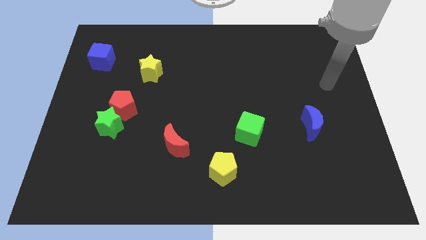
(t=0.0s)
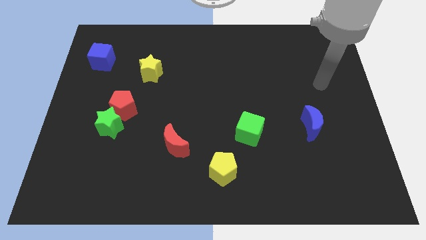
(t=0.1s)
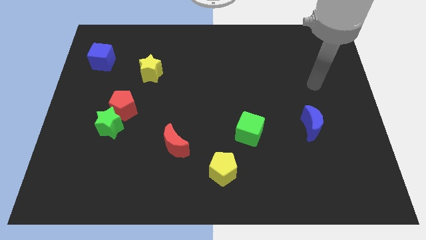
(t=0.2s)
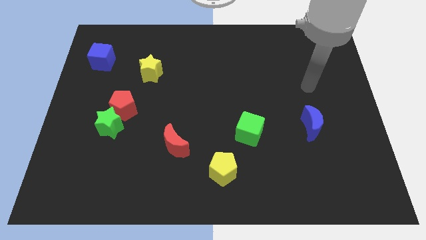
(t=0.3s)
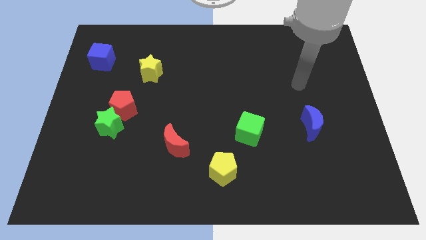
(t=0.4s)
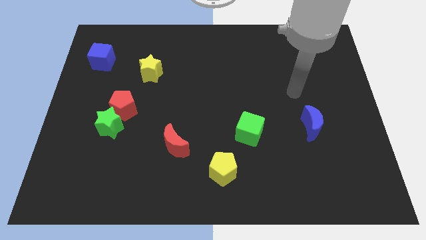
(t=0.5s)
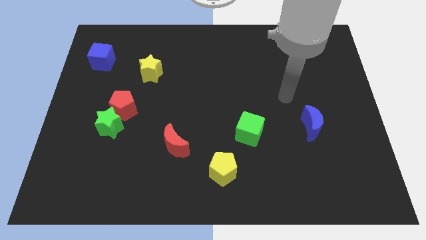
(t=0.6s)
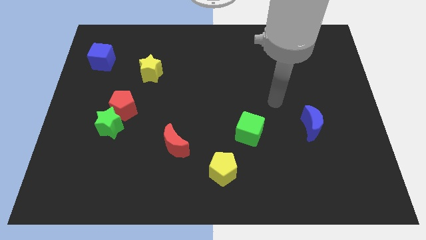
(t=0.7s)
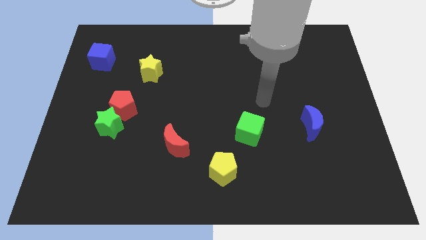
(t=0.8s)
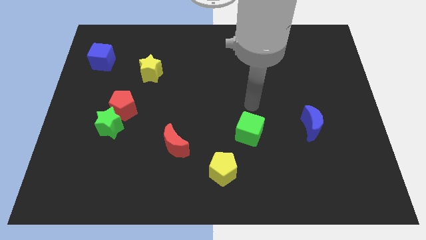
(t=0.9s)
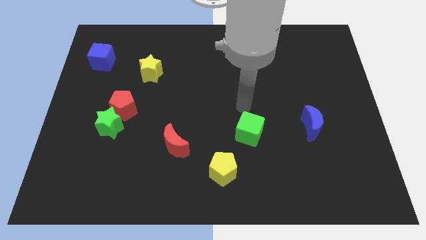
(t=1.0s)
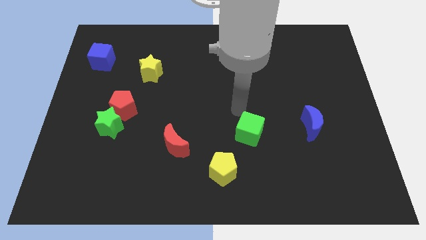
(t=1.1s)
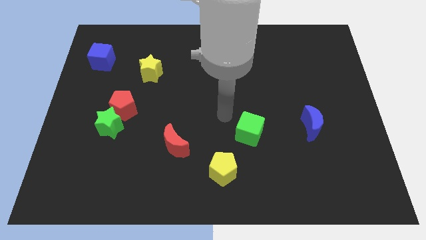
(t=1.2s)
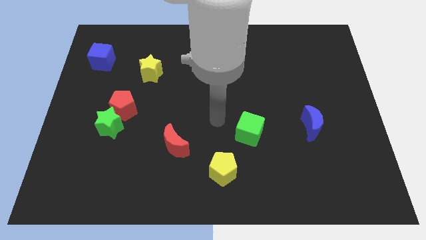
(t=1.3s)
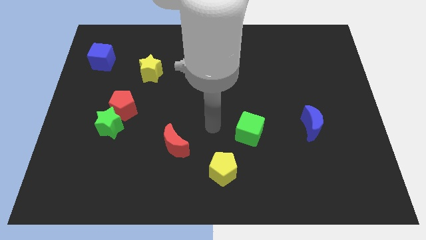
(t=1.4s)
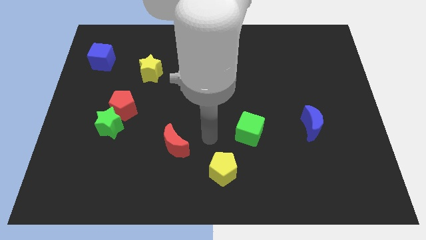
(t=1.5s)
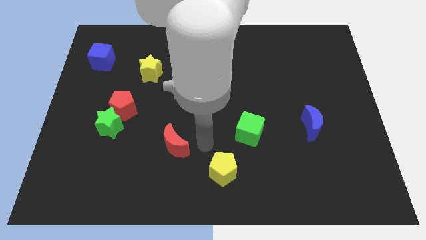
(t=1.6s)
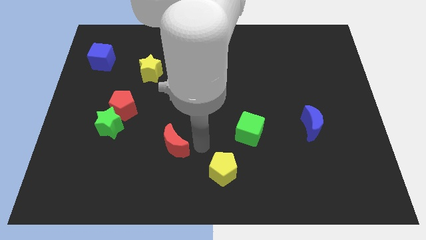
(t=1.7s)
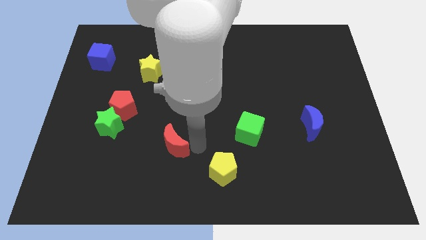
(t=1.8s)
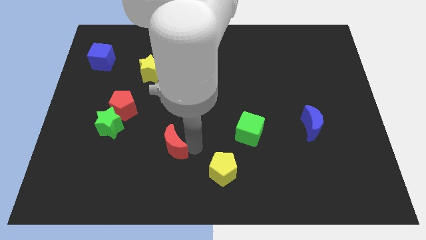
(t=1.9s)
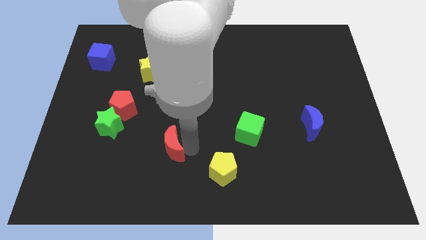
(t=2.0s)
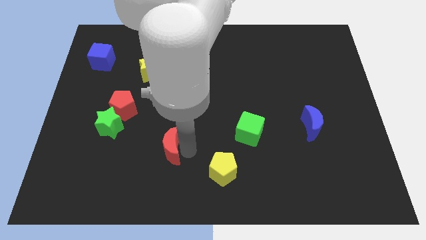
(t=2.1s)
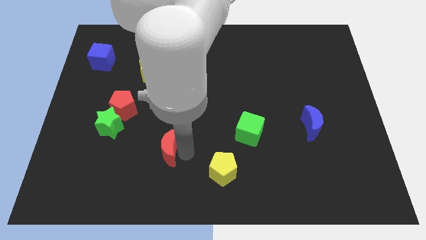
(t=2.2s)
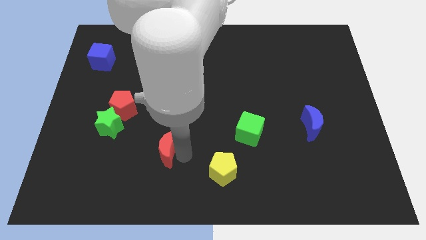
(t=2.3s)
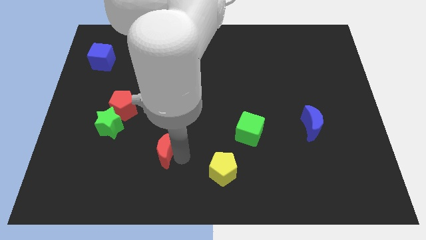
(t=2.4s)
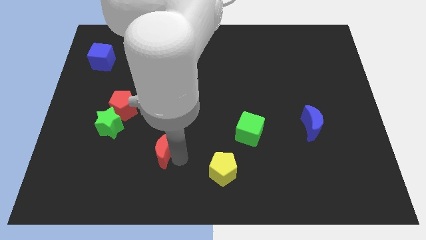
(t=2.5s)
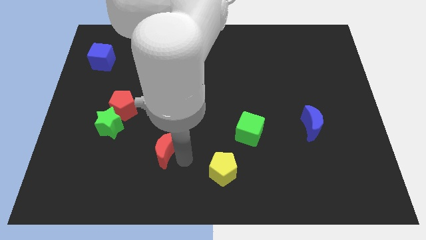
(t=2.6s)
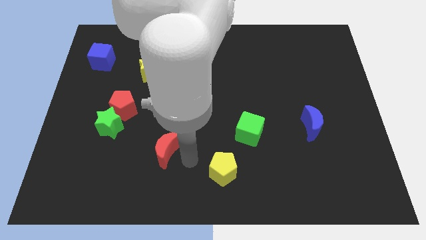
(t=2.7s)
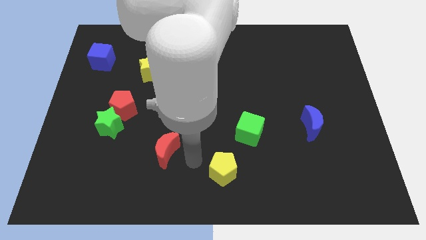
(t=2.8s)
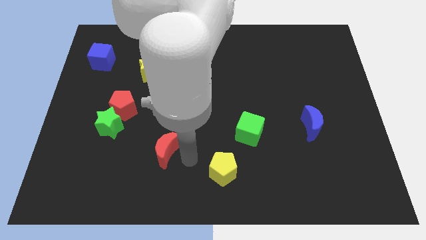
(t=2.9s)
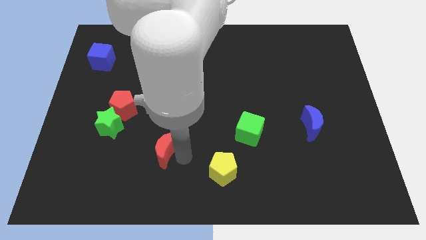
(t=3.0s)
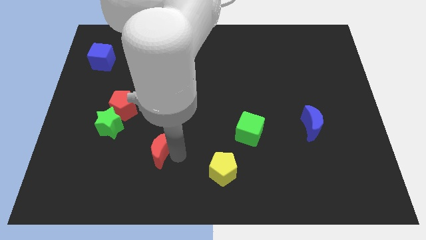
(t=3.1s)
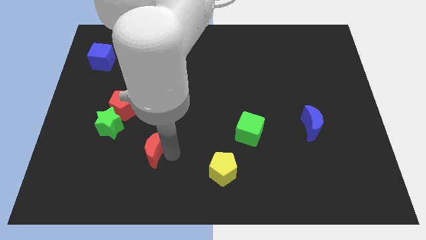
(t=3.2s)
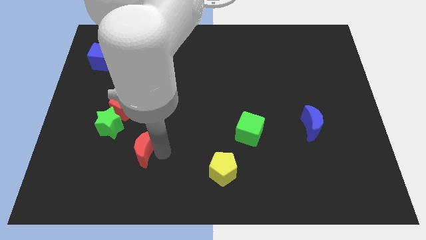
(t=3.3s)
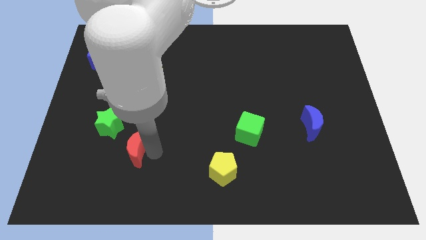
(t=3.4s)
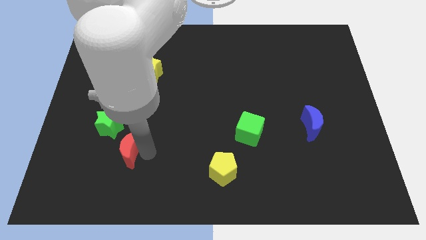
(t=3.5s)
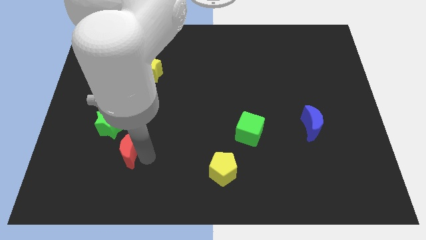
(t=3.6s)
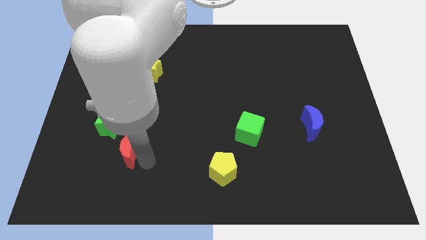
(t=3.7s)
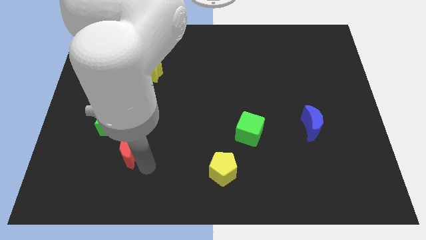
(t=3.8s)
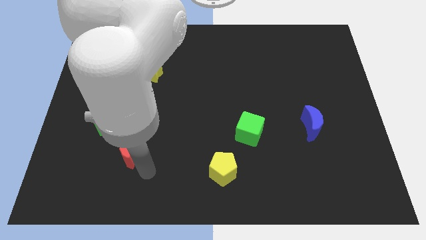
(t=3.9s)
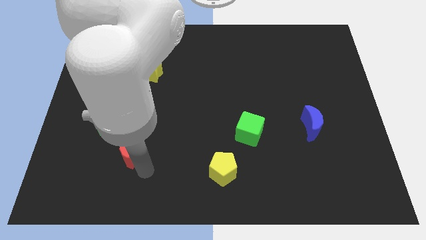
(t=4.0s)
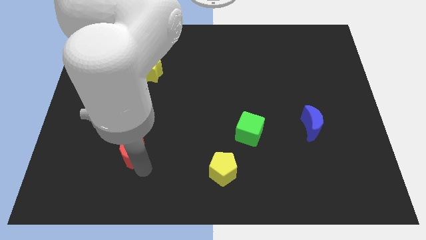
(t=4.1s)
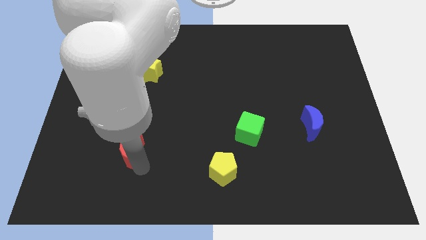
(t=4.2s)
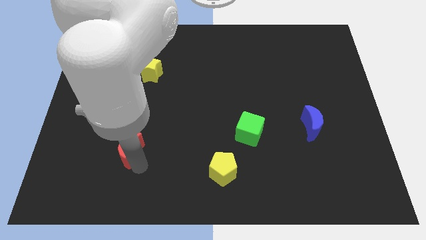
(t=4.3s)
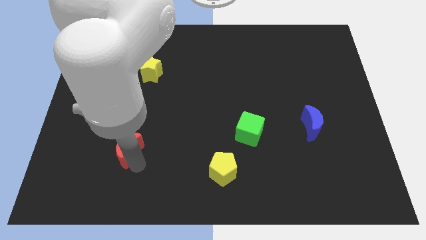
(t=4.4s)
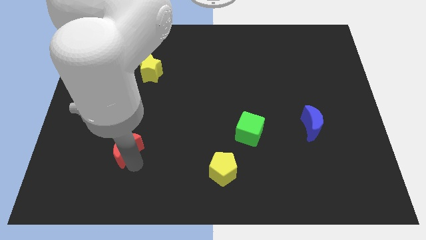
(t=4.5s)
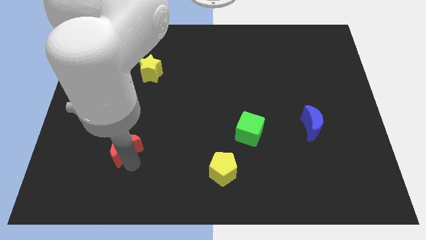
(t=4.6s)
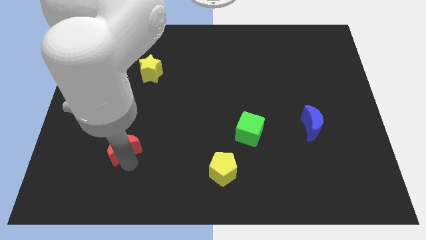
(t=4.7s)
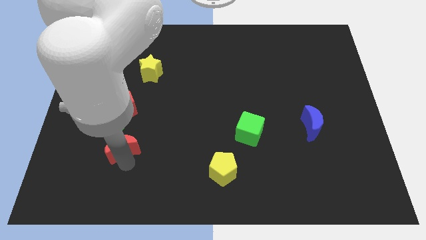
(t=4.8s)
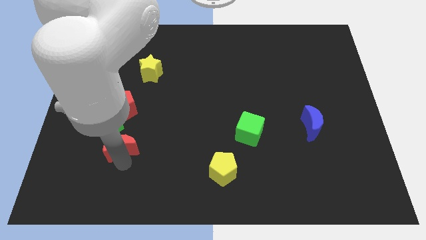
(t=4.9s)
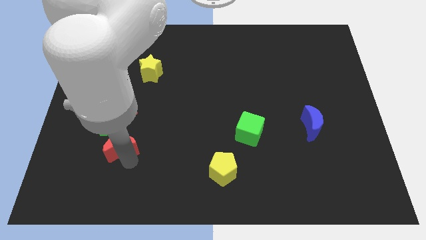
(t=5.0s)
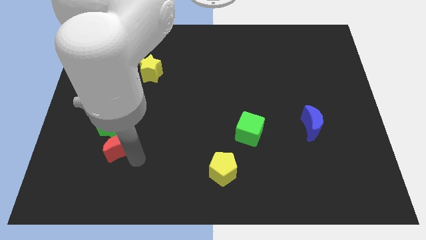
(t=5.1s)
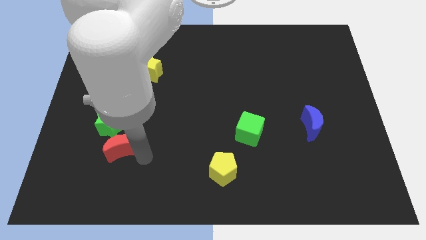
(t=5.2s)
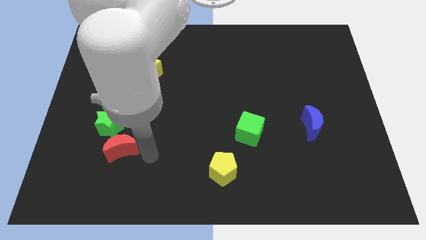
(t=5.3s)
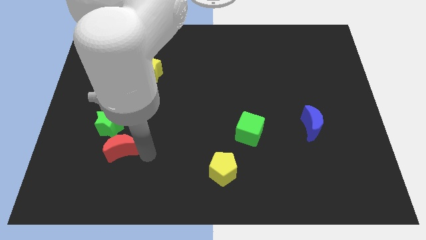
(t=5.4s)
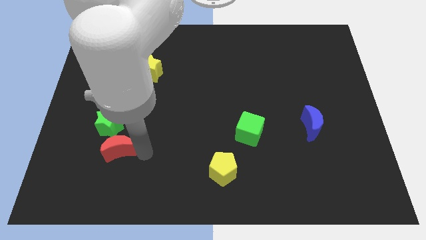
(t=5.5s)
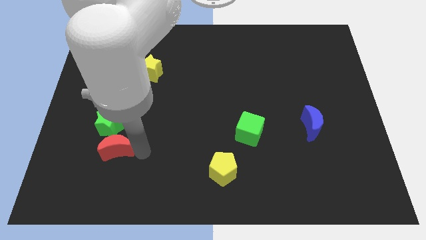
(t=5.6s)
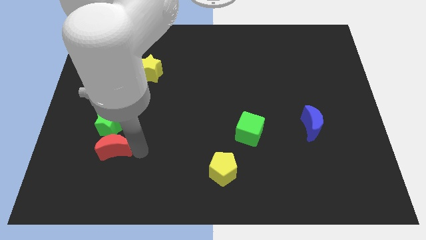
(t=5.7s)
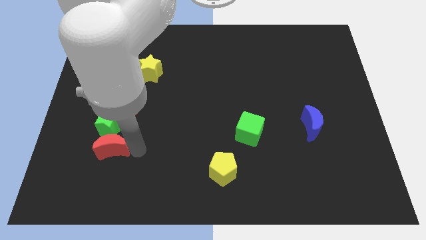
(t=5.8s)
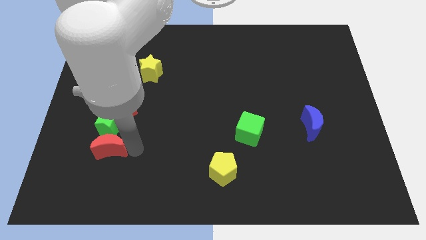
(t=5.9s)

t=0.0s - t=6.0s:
push the red moon to the bottom left of the green star

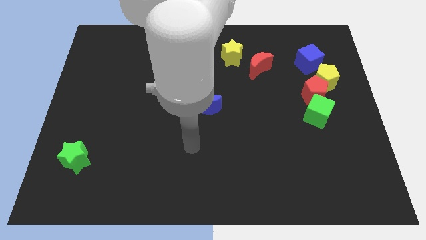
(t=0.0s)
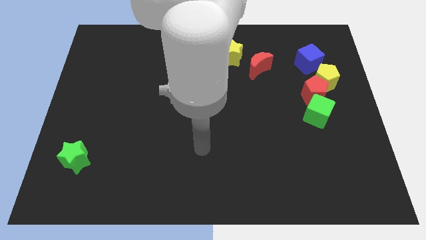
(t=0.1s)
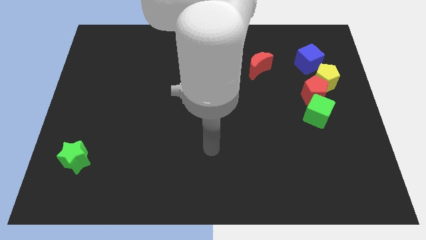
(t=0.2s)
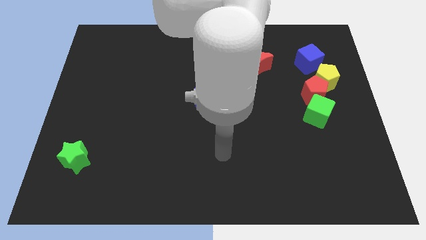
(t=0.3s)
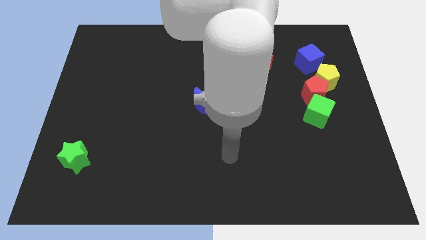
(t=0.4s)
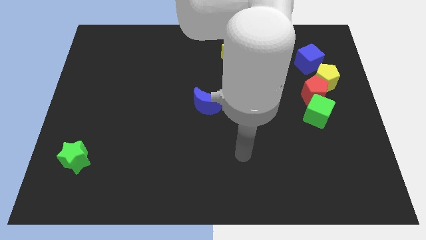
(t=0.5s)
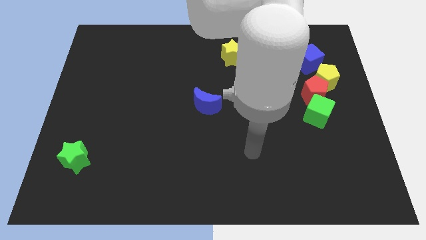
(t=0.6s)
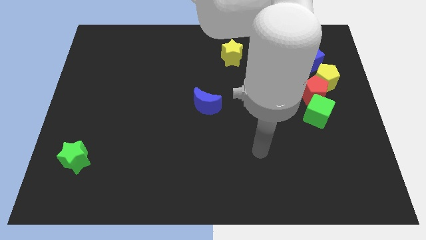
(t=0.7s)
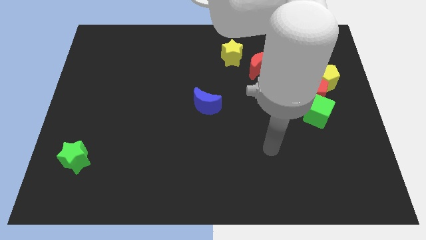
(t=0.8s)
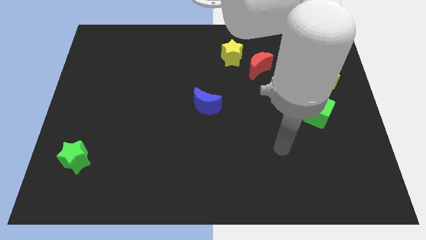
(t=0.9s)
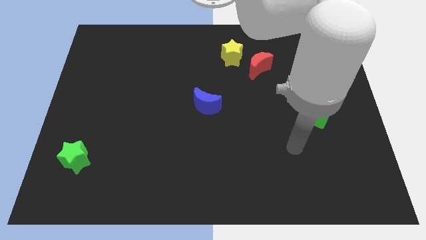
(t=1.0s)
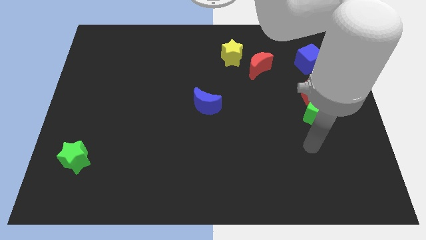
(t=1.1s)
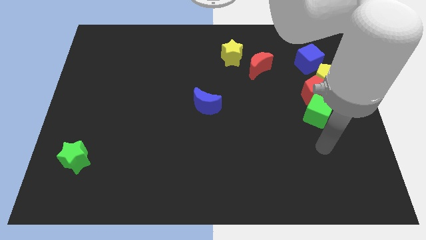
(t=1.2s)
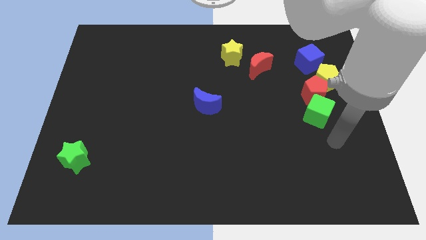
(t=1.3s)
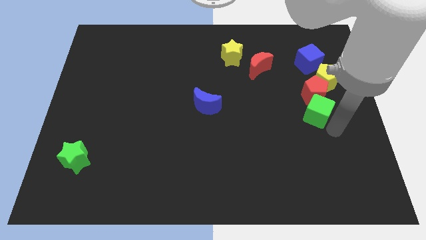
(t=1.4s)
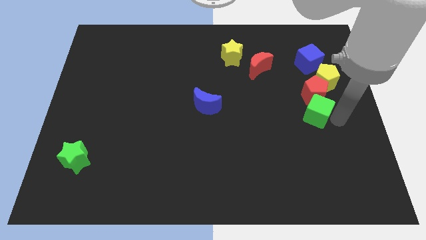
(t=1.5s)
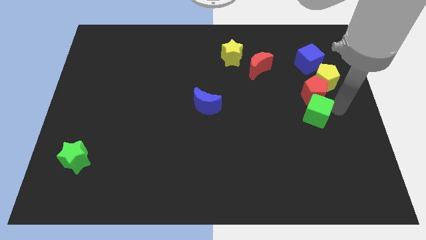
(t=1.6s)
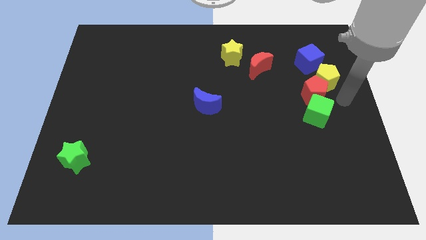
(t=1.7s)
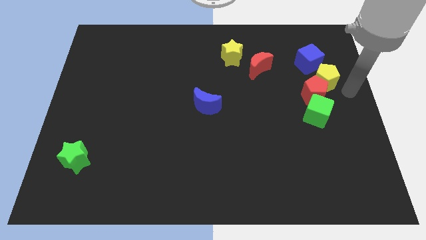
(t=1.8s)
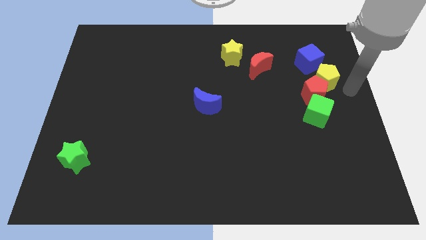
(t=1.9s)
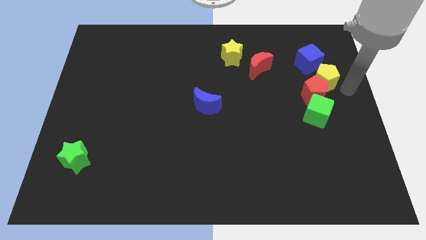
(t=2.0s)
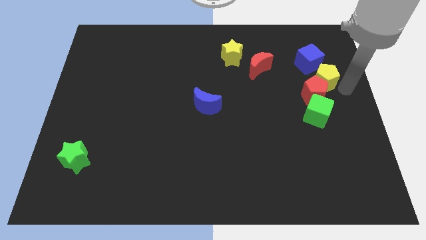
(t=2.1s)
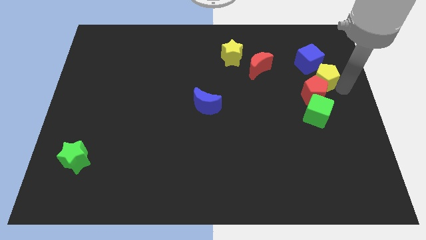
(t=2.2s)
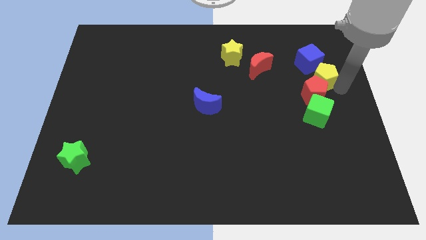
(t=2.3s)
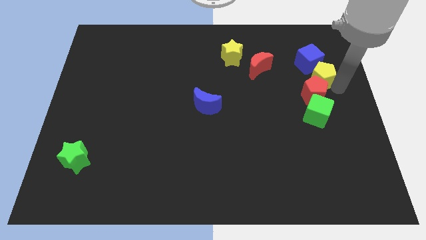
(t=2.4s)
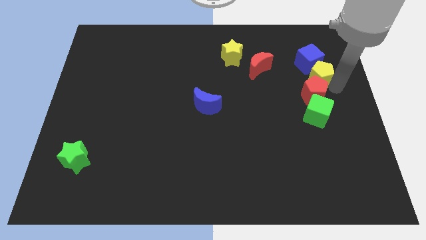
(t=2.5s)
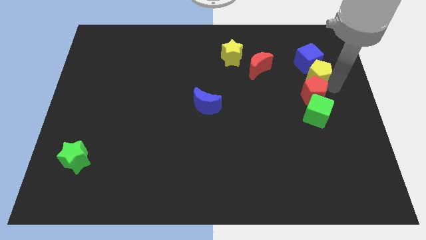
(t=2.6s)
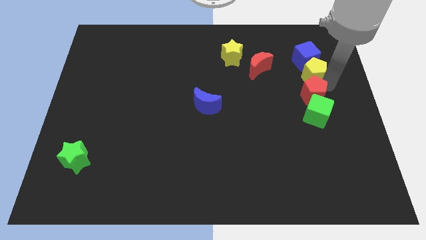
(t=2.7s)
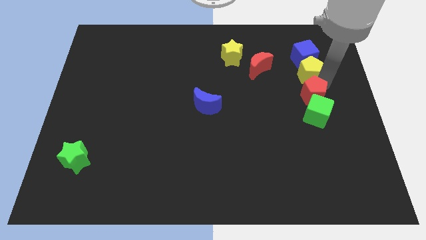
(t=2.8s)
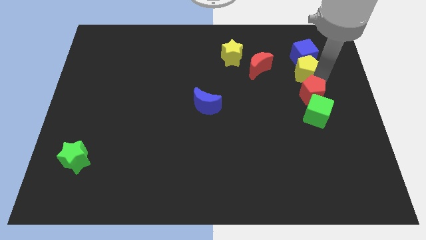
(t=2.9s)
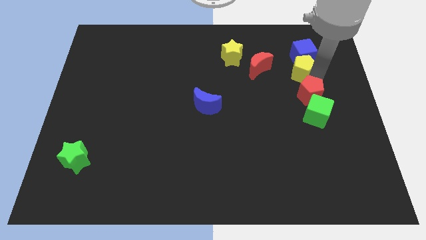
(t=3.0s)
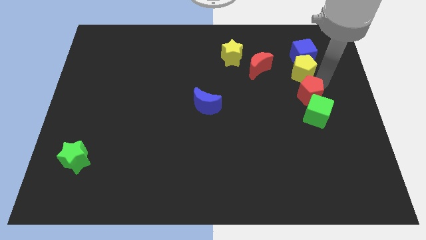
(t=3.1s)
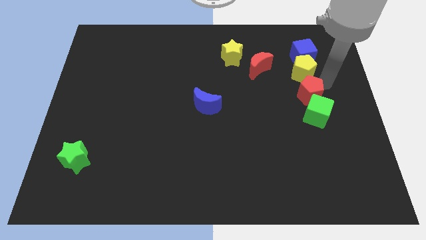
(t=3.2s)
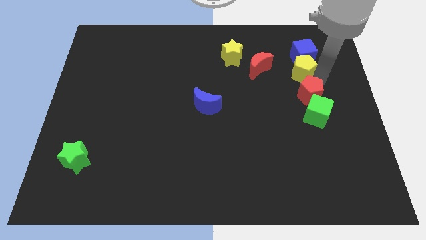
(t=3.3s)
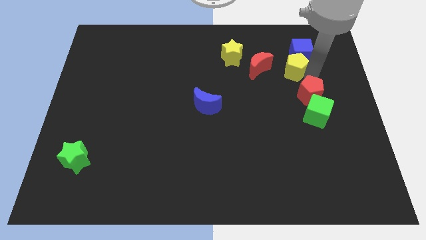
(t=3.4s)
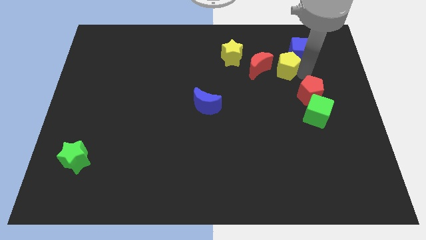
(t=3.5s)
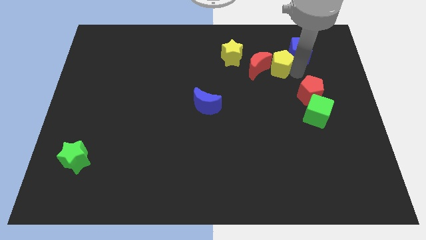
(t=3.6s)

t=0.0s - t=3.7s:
put the yellow pentagon to the right side of the yellow star
